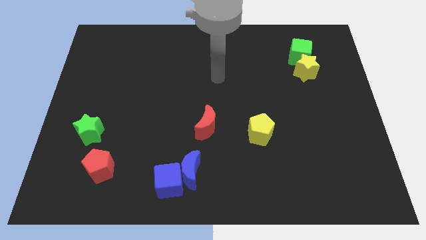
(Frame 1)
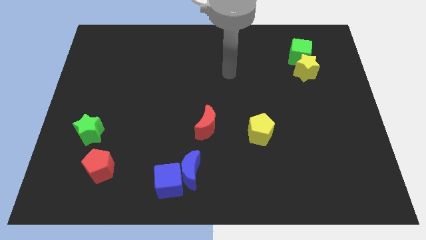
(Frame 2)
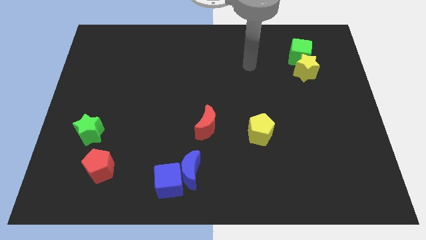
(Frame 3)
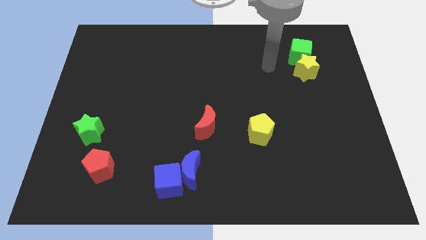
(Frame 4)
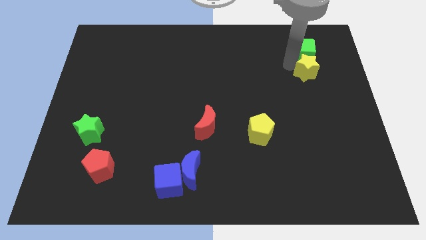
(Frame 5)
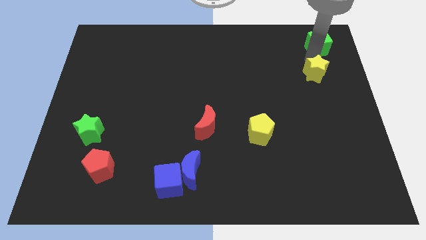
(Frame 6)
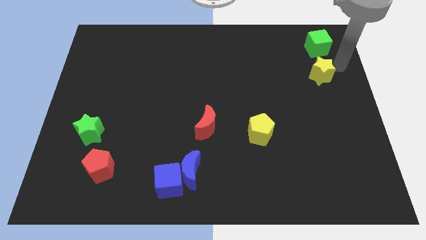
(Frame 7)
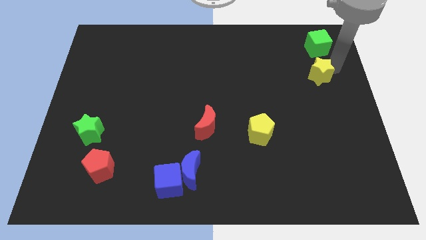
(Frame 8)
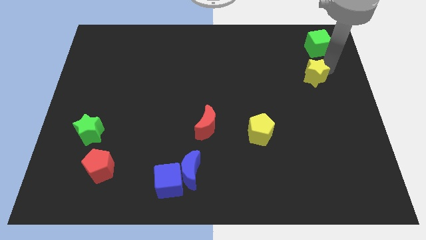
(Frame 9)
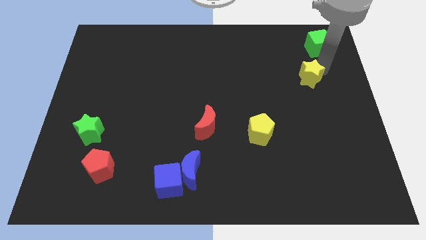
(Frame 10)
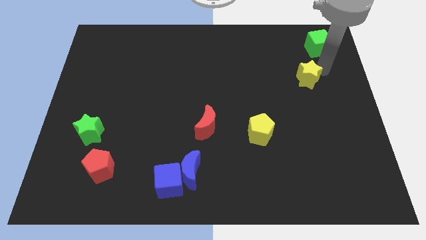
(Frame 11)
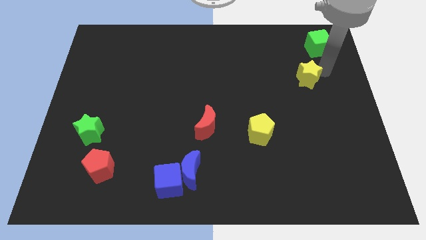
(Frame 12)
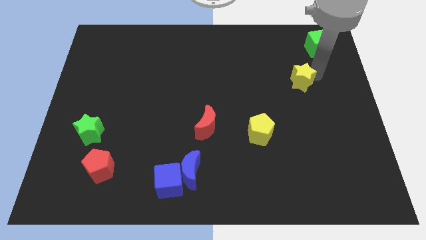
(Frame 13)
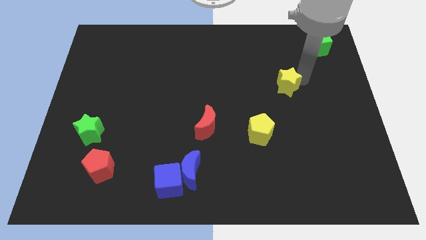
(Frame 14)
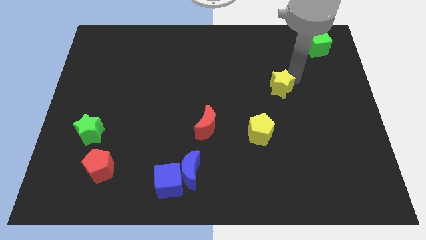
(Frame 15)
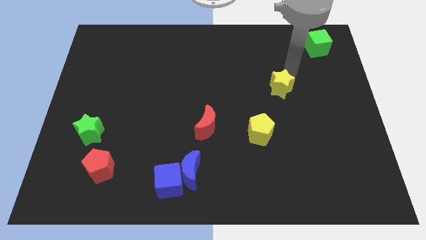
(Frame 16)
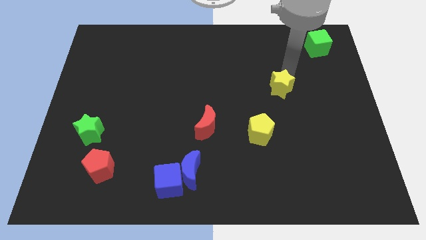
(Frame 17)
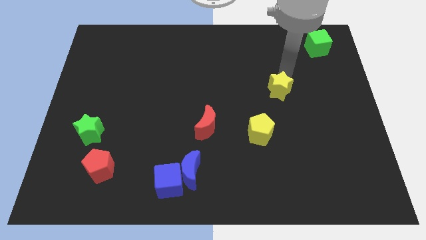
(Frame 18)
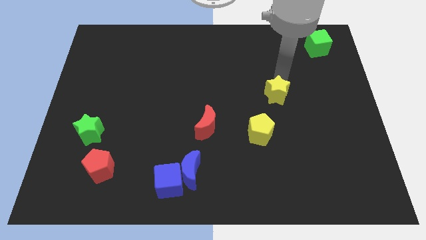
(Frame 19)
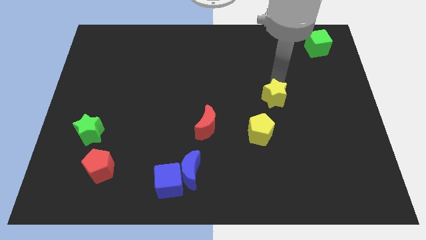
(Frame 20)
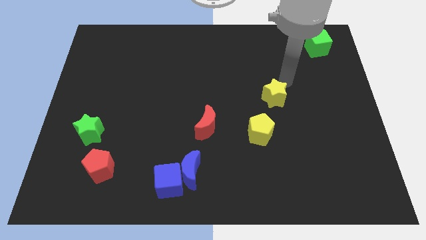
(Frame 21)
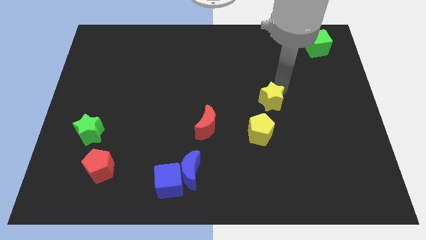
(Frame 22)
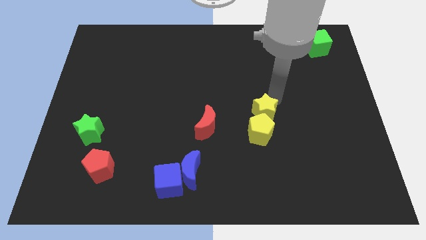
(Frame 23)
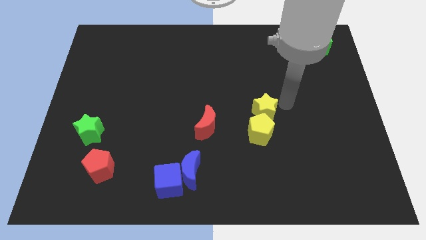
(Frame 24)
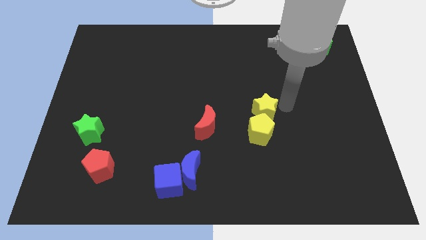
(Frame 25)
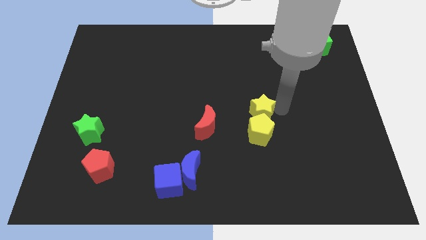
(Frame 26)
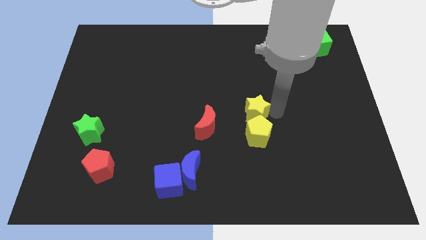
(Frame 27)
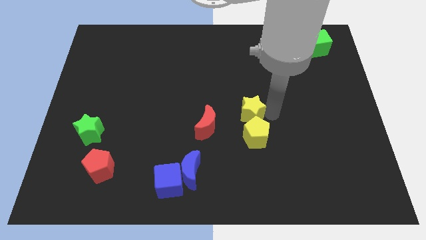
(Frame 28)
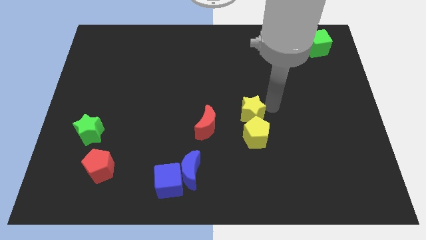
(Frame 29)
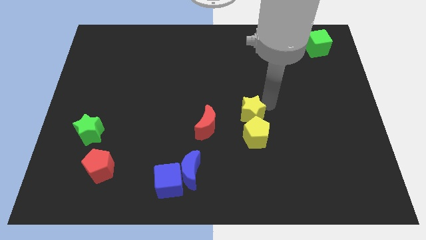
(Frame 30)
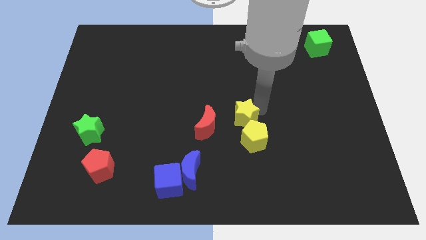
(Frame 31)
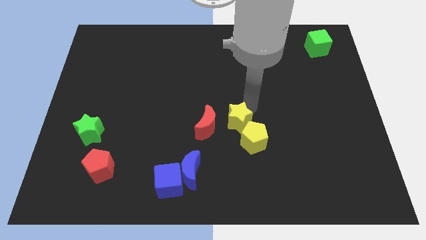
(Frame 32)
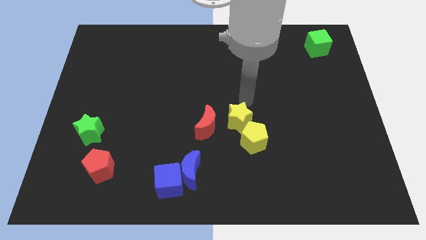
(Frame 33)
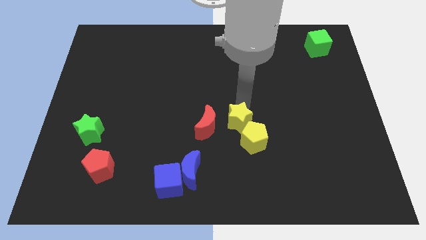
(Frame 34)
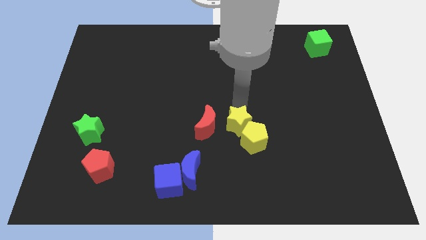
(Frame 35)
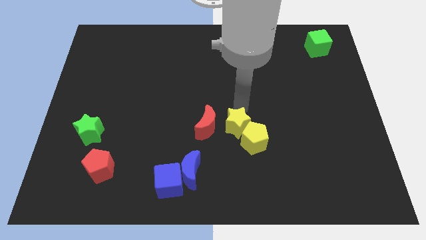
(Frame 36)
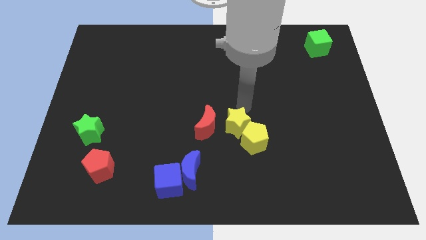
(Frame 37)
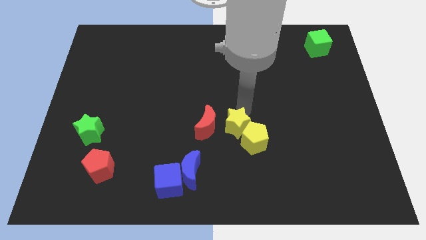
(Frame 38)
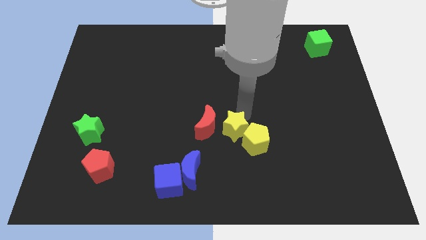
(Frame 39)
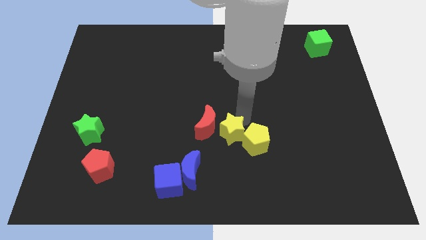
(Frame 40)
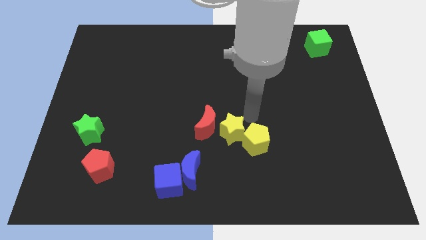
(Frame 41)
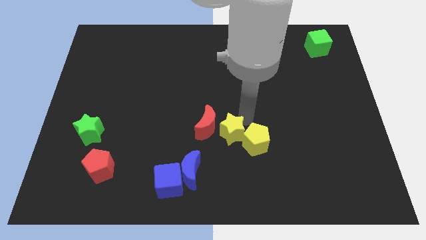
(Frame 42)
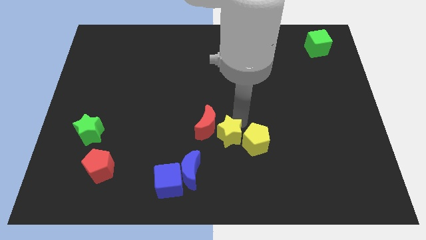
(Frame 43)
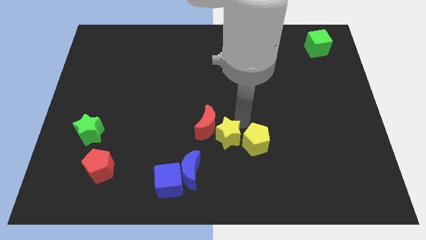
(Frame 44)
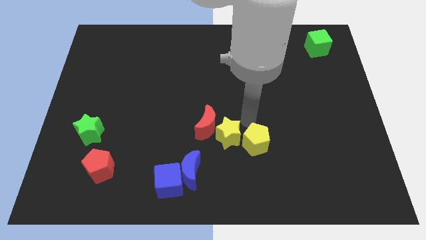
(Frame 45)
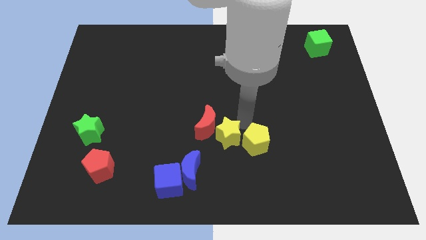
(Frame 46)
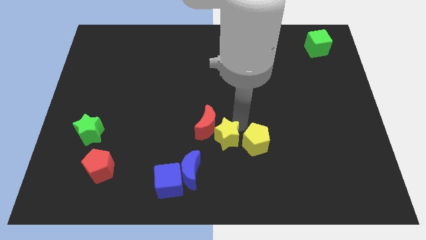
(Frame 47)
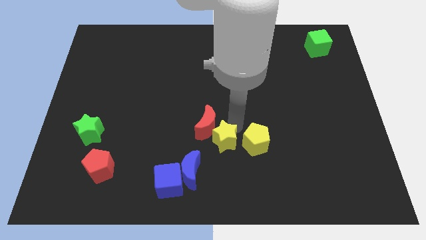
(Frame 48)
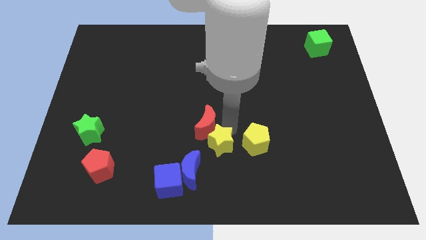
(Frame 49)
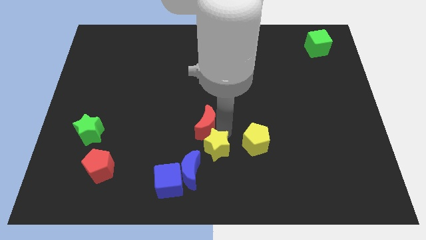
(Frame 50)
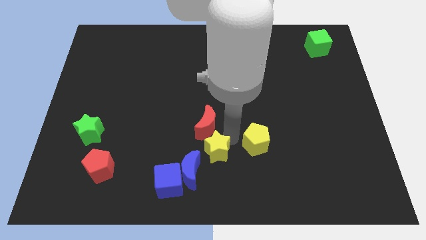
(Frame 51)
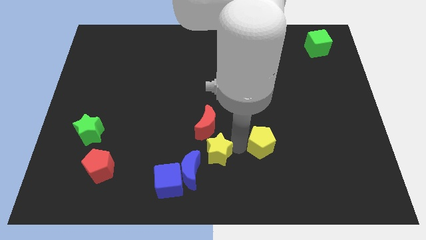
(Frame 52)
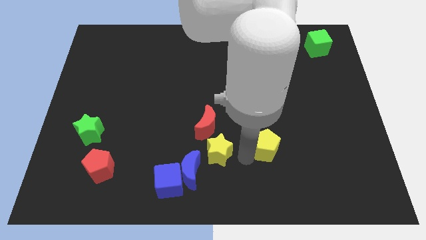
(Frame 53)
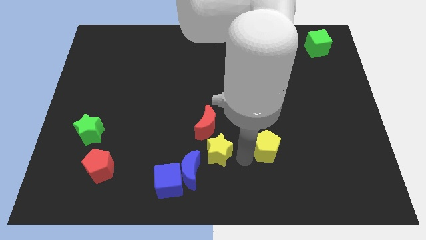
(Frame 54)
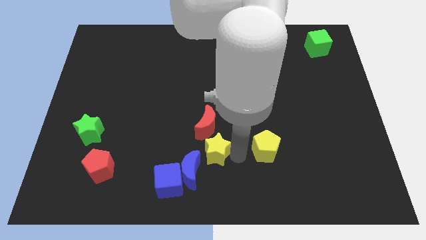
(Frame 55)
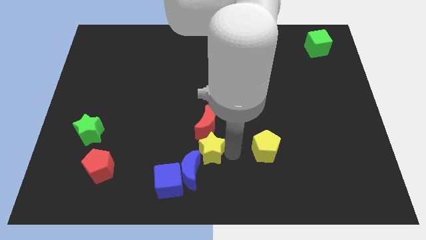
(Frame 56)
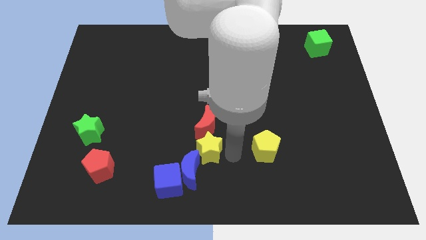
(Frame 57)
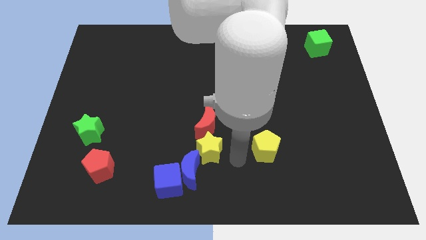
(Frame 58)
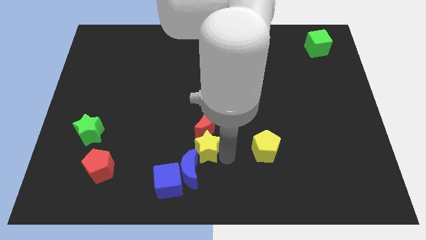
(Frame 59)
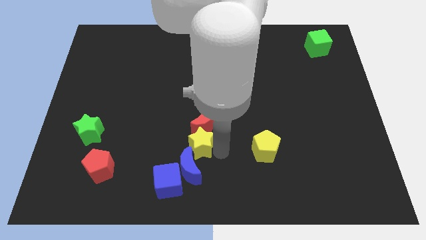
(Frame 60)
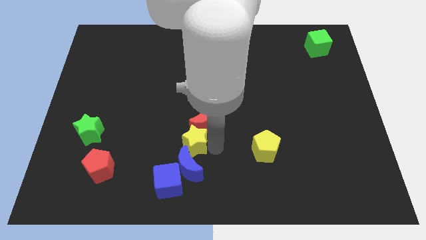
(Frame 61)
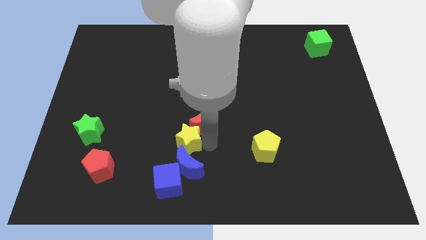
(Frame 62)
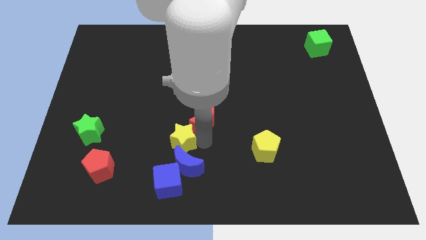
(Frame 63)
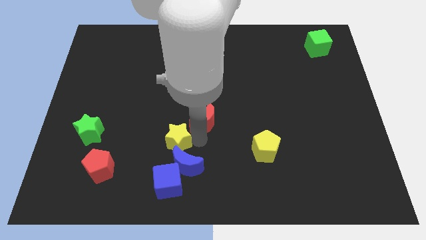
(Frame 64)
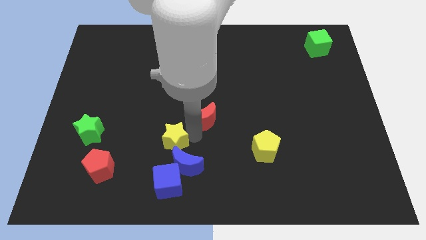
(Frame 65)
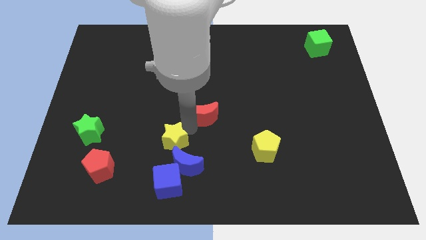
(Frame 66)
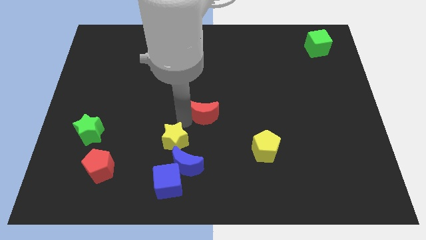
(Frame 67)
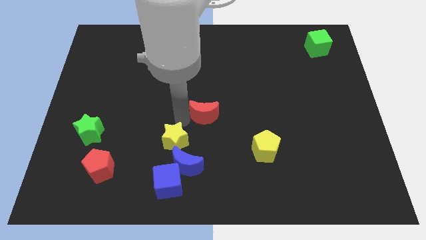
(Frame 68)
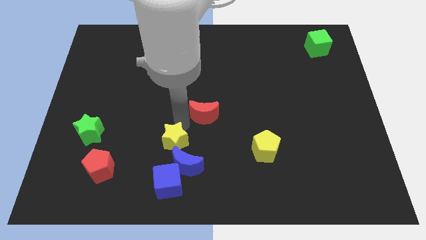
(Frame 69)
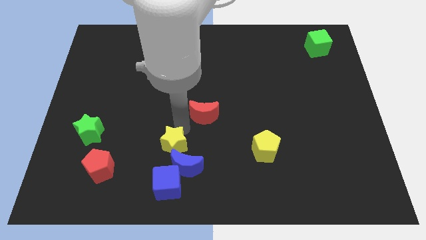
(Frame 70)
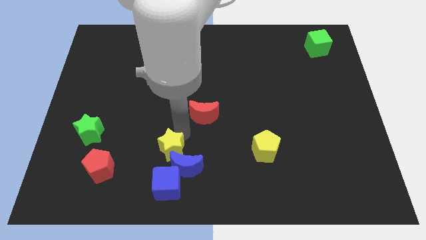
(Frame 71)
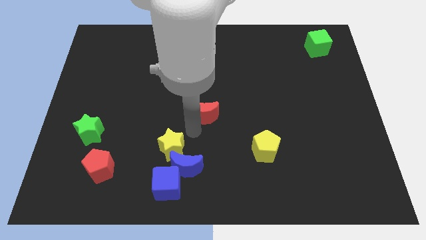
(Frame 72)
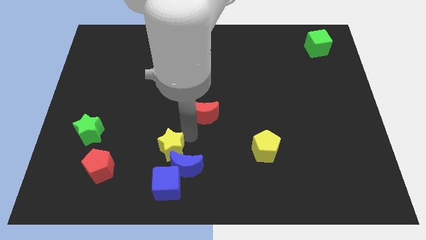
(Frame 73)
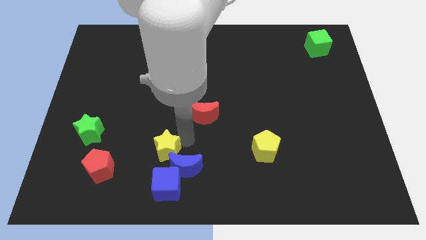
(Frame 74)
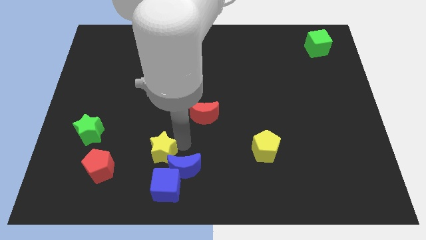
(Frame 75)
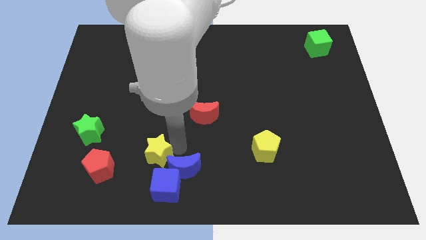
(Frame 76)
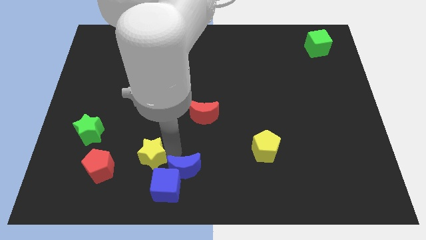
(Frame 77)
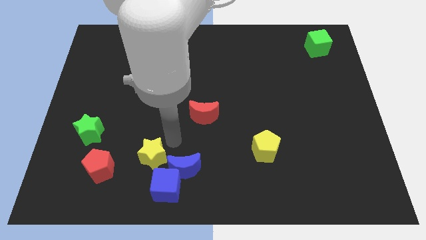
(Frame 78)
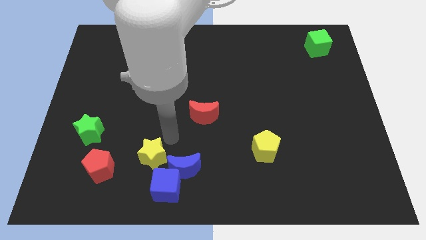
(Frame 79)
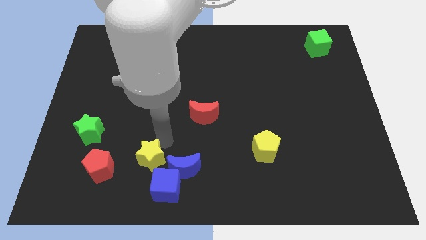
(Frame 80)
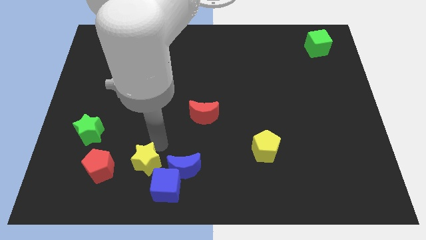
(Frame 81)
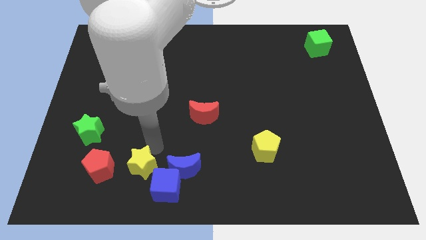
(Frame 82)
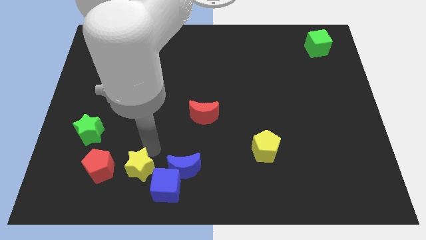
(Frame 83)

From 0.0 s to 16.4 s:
slide the yellow star to the left side of the blue cube
